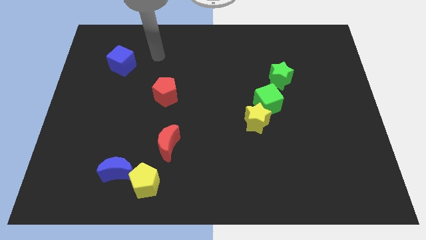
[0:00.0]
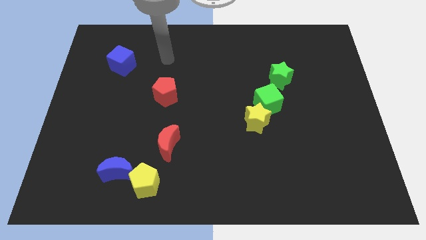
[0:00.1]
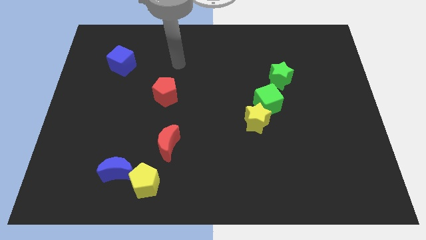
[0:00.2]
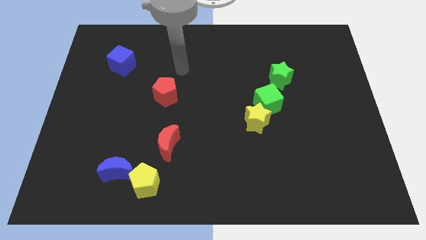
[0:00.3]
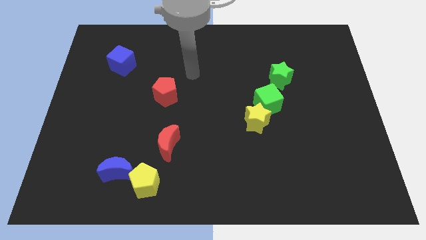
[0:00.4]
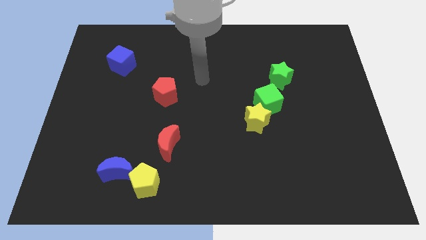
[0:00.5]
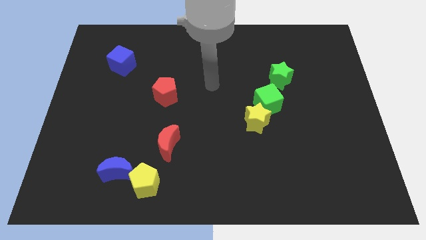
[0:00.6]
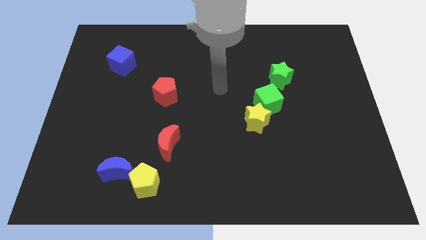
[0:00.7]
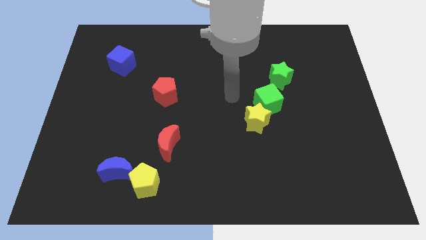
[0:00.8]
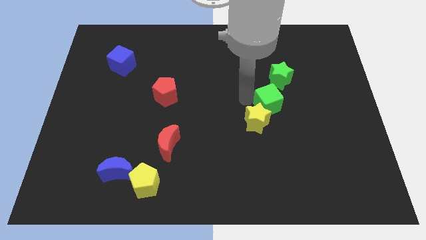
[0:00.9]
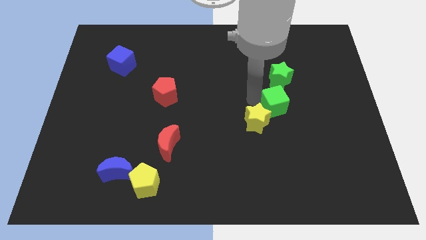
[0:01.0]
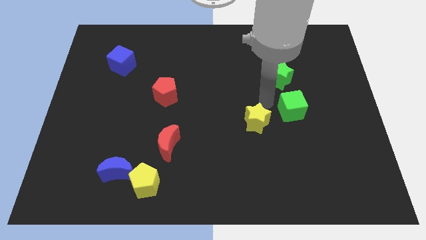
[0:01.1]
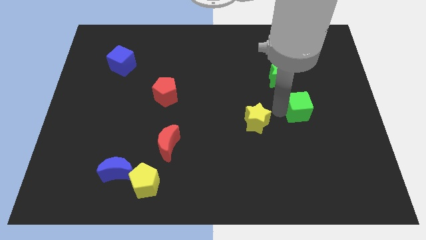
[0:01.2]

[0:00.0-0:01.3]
separate the yellow star from the green cube

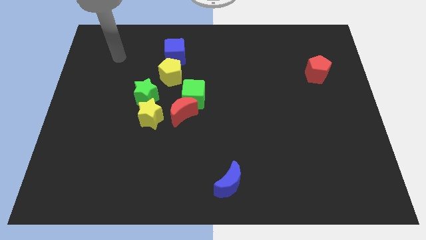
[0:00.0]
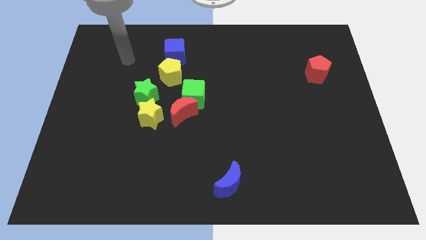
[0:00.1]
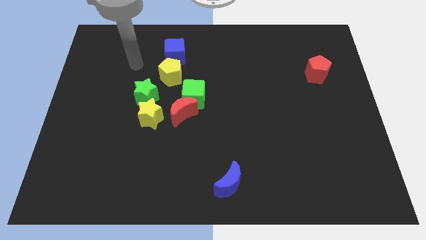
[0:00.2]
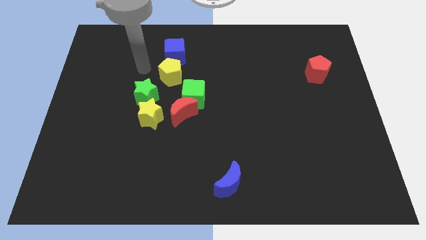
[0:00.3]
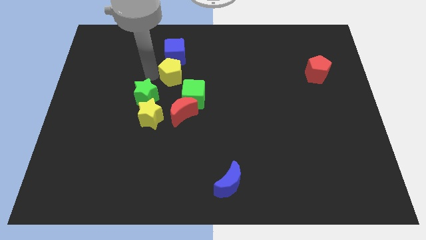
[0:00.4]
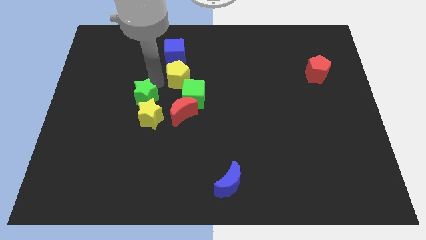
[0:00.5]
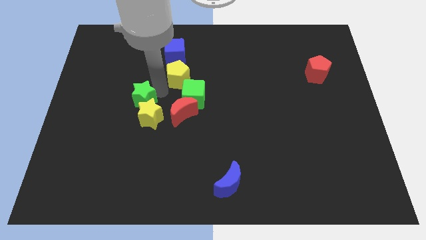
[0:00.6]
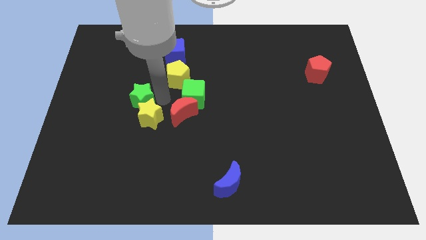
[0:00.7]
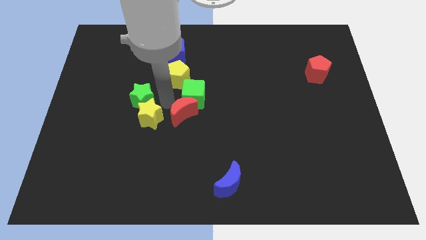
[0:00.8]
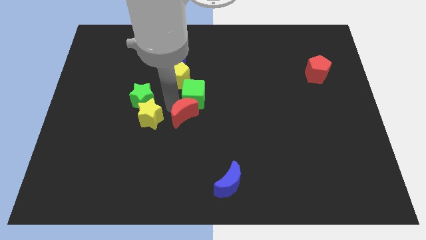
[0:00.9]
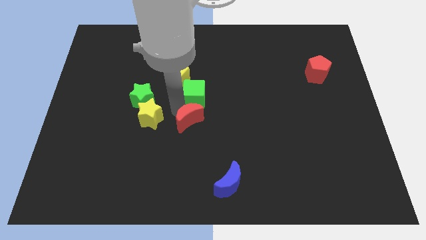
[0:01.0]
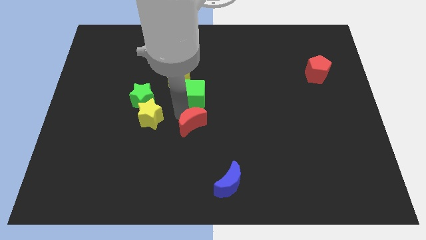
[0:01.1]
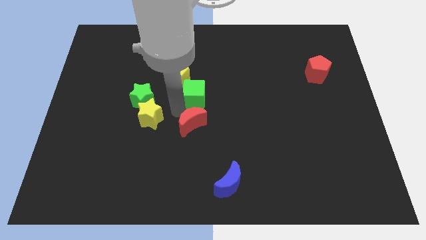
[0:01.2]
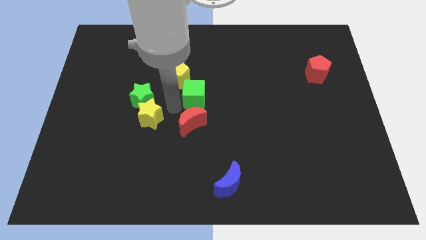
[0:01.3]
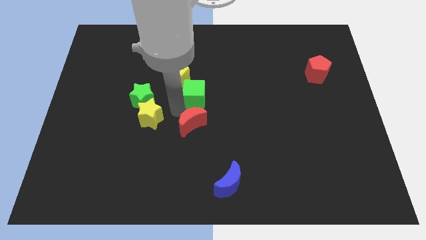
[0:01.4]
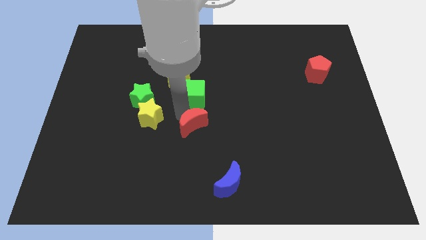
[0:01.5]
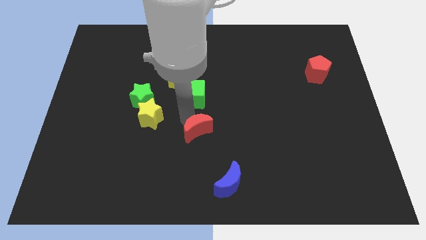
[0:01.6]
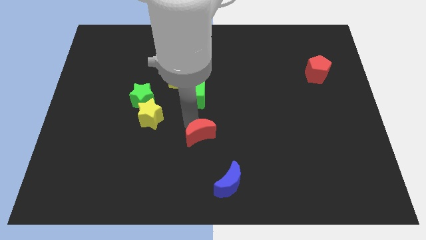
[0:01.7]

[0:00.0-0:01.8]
separate the red moon from the green cube and yellow star

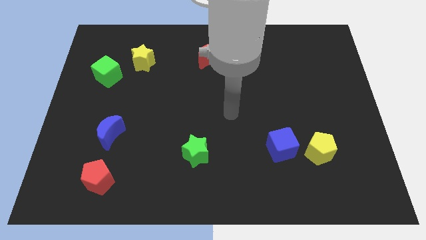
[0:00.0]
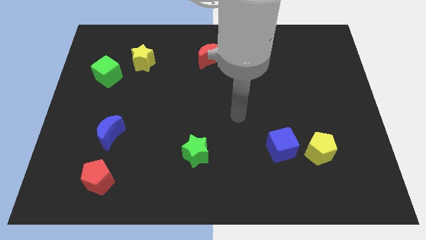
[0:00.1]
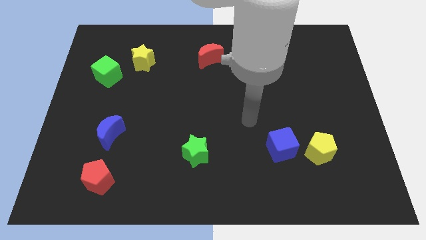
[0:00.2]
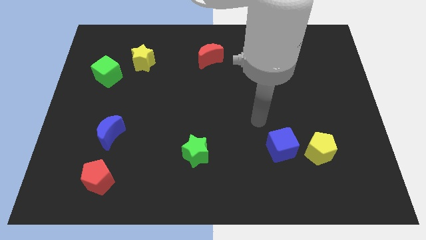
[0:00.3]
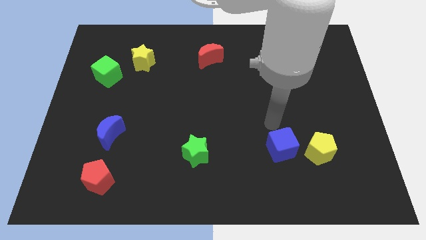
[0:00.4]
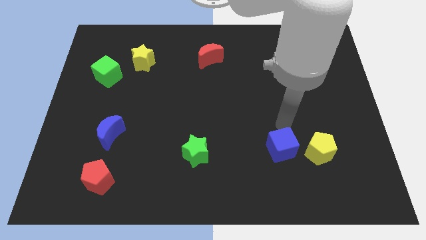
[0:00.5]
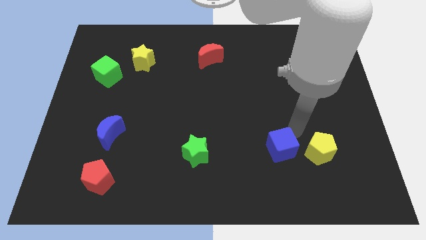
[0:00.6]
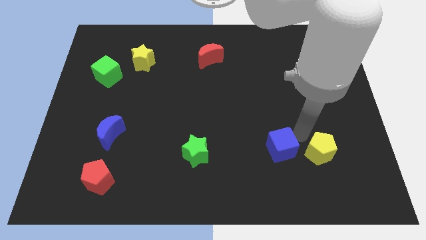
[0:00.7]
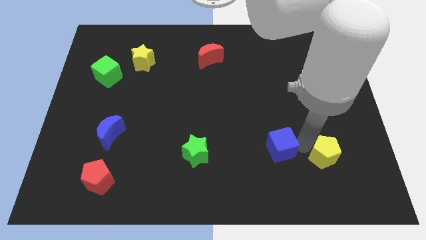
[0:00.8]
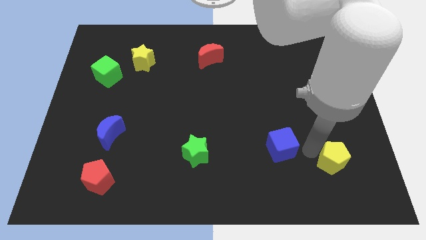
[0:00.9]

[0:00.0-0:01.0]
pull the blue cube apart from the yellow pentagon

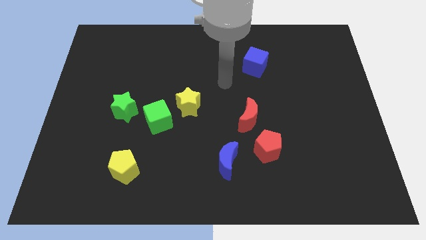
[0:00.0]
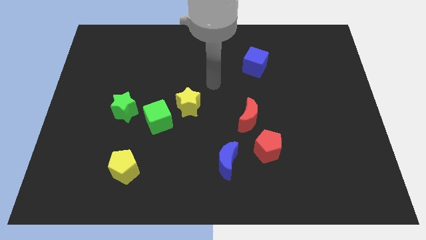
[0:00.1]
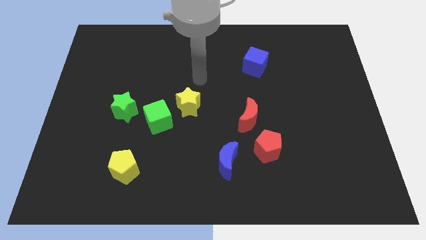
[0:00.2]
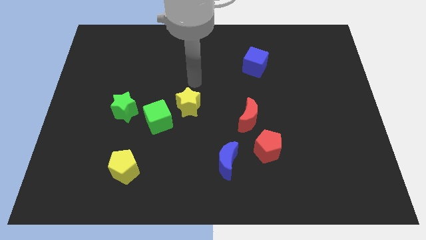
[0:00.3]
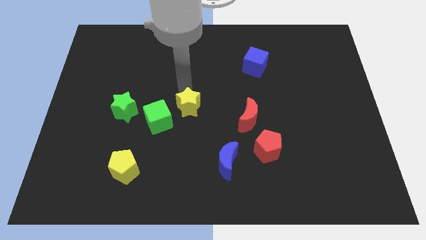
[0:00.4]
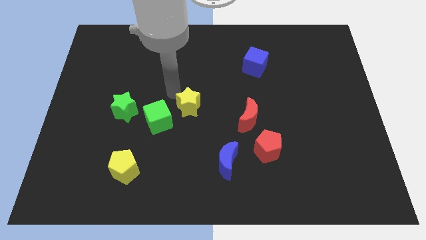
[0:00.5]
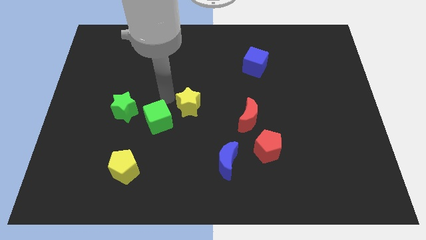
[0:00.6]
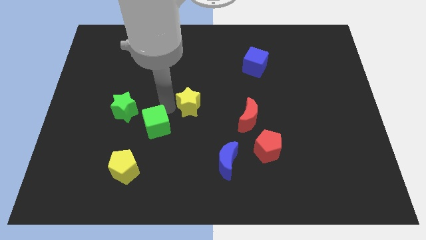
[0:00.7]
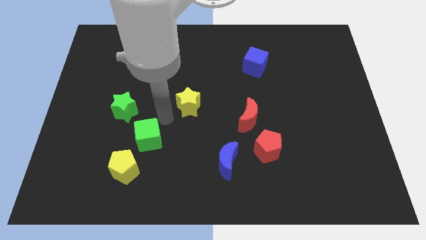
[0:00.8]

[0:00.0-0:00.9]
pull the yellow star apart from the green cube

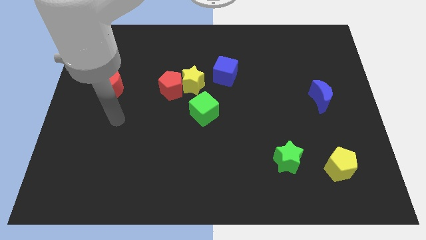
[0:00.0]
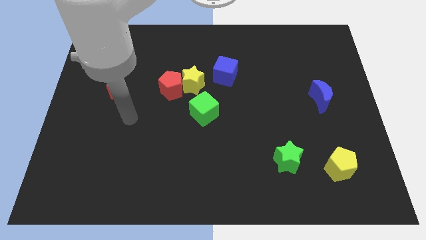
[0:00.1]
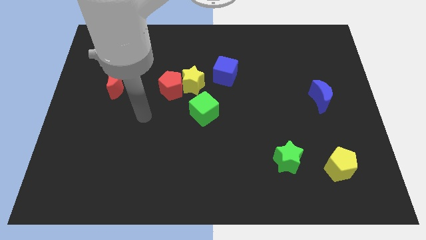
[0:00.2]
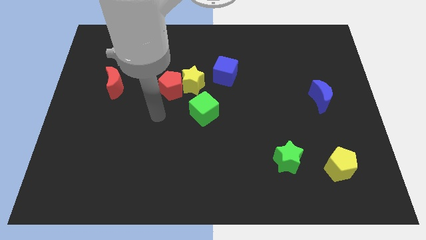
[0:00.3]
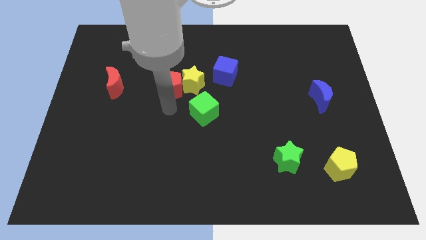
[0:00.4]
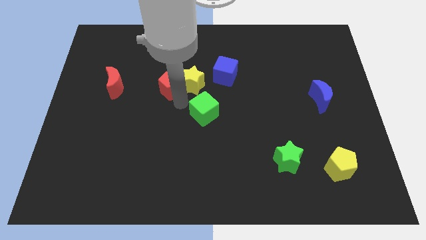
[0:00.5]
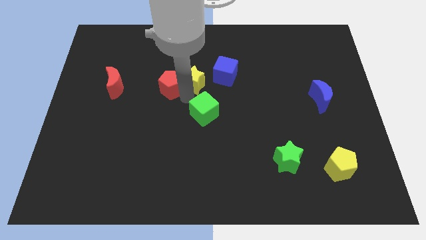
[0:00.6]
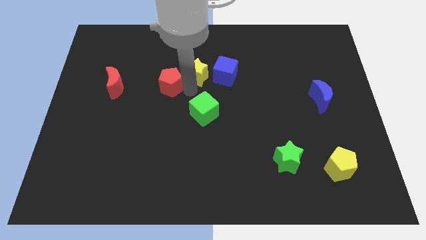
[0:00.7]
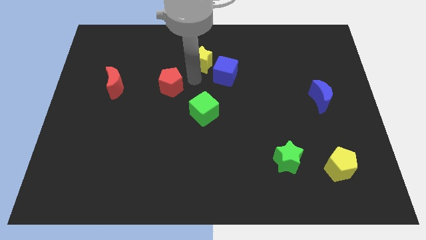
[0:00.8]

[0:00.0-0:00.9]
pull the red pentagon apart from the yellow star

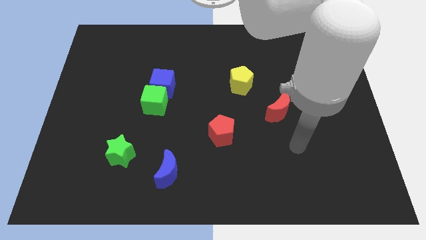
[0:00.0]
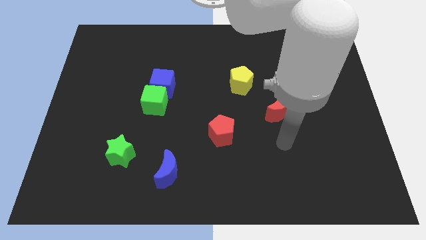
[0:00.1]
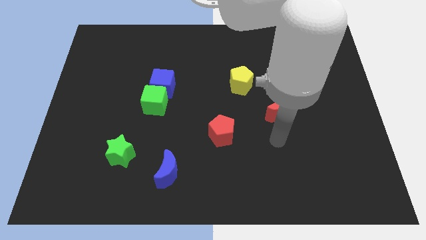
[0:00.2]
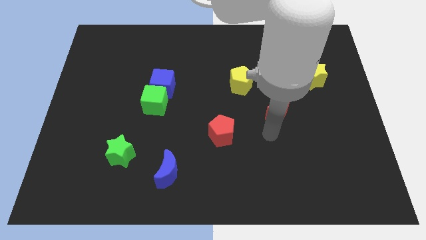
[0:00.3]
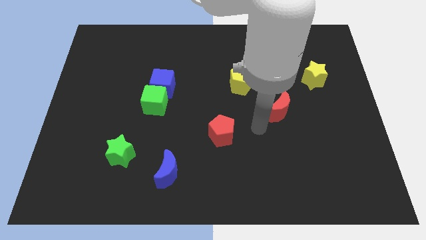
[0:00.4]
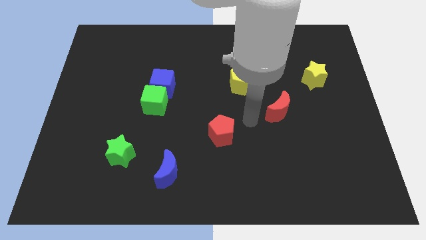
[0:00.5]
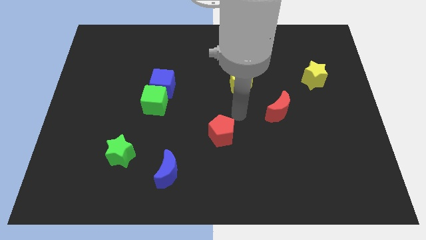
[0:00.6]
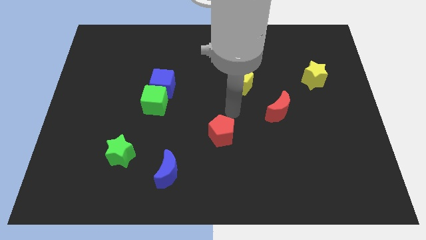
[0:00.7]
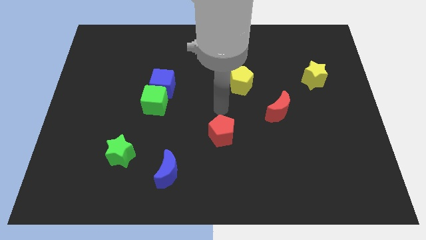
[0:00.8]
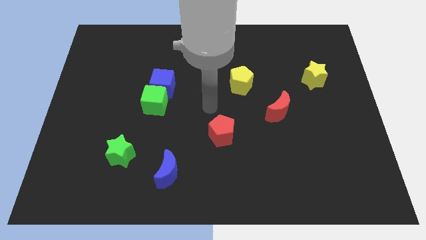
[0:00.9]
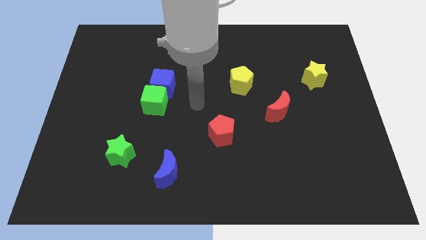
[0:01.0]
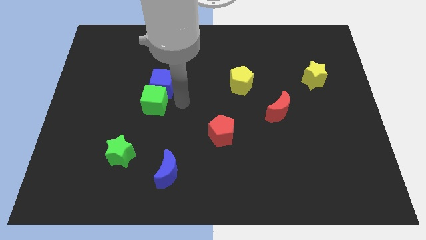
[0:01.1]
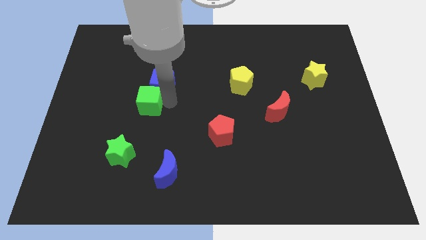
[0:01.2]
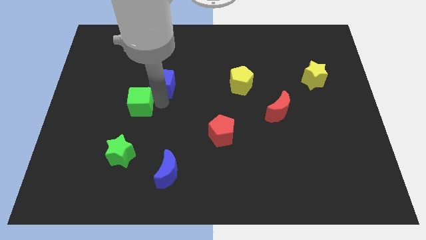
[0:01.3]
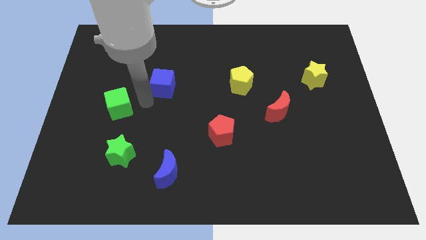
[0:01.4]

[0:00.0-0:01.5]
pull the blue cube apart from the green cube

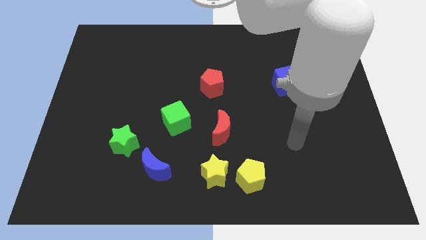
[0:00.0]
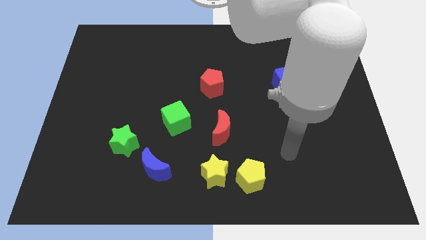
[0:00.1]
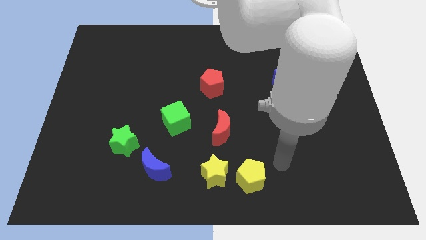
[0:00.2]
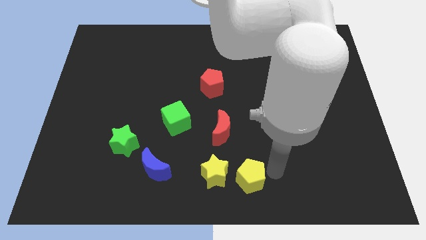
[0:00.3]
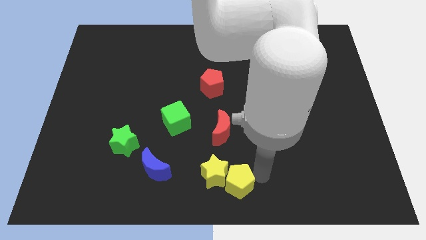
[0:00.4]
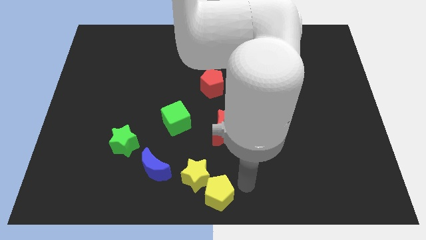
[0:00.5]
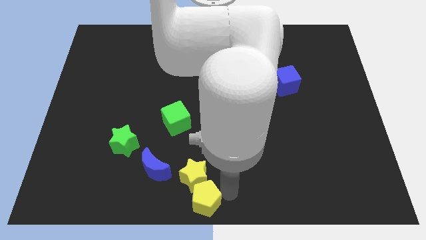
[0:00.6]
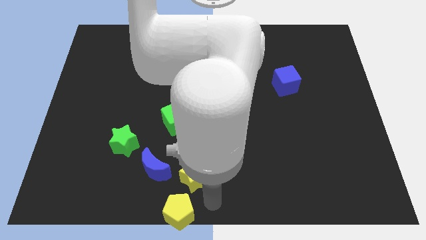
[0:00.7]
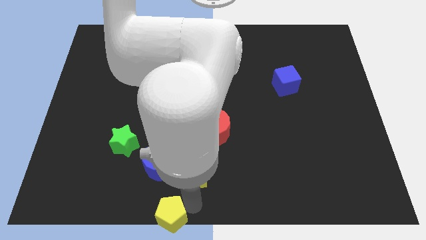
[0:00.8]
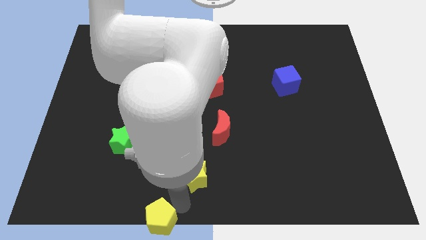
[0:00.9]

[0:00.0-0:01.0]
move the yellow star away from the yellow pentagon

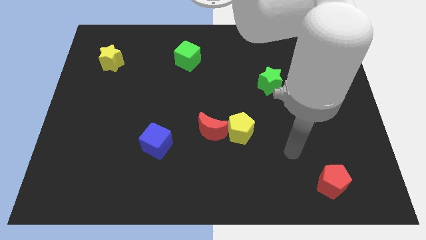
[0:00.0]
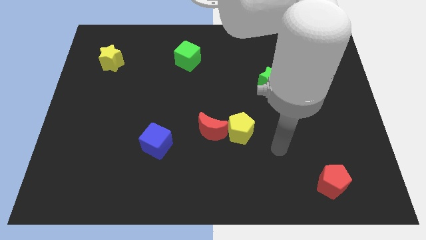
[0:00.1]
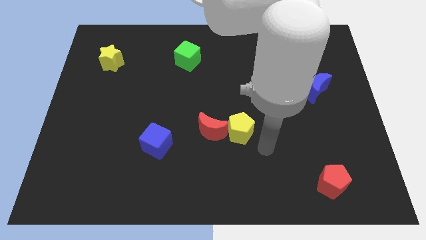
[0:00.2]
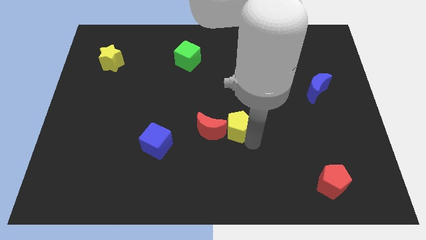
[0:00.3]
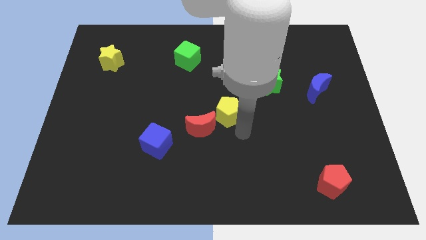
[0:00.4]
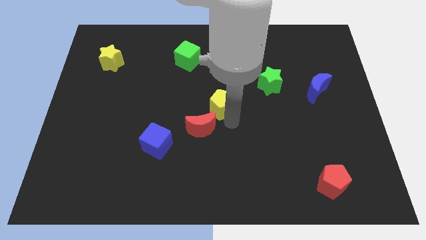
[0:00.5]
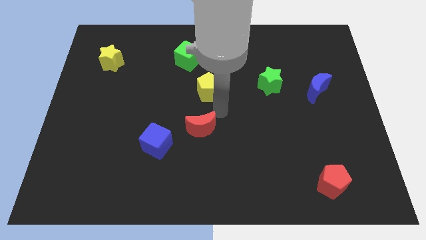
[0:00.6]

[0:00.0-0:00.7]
move the red moon away from the yellow pentagon
